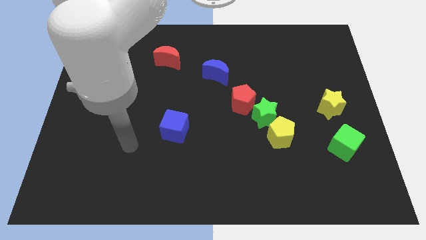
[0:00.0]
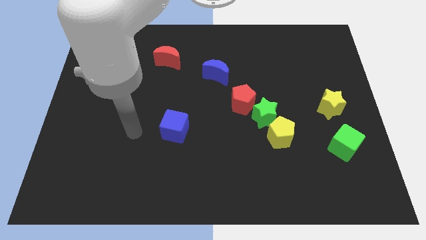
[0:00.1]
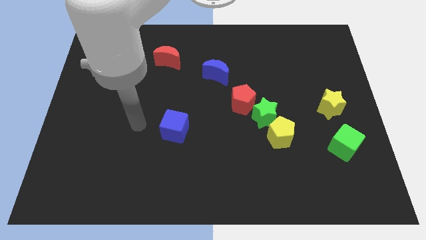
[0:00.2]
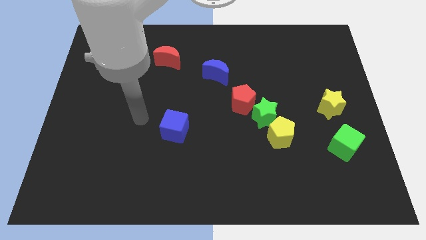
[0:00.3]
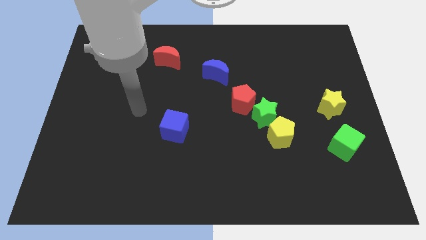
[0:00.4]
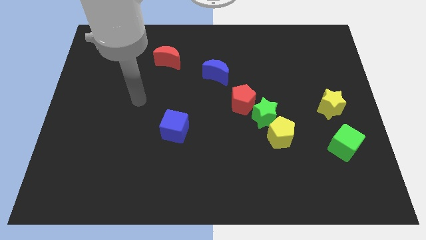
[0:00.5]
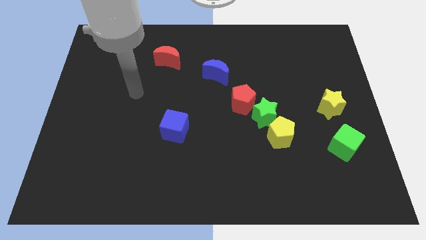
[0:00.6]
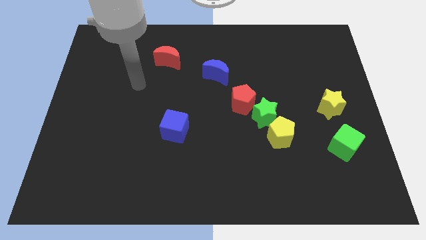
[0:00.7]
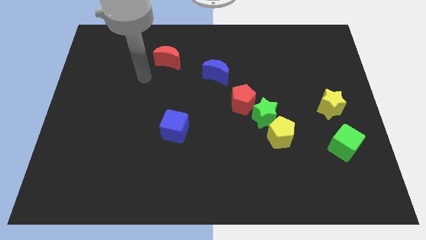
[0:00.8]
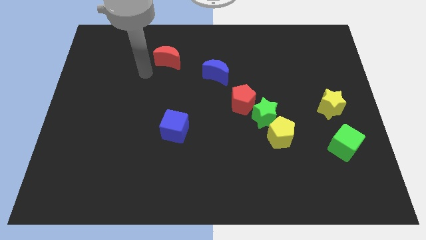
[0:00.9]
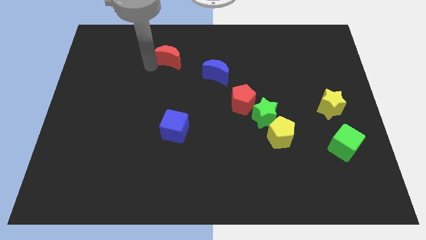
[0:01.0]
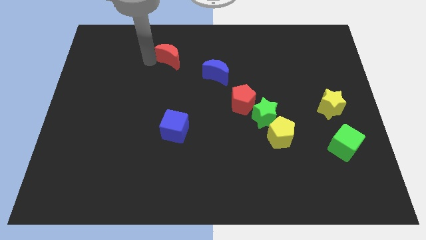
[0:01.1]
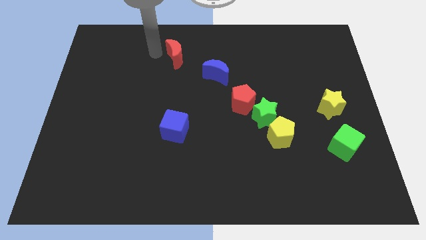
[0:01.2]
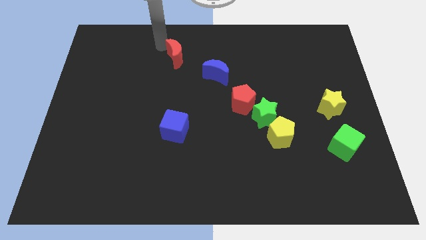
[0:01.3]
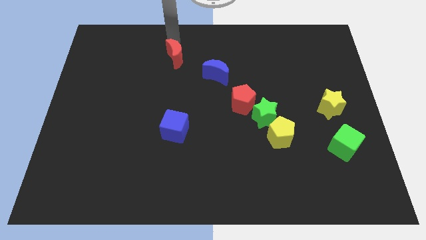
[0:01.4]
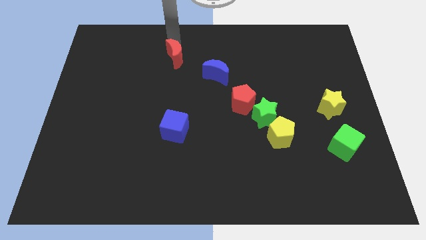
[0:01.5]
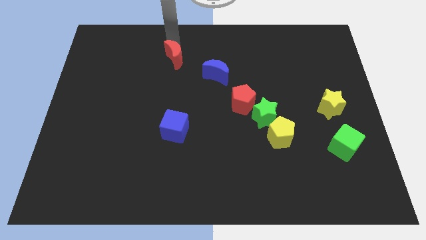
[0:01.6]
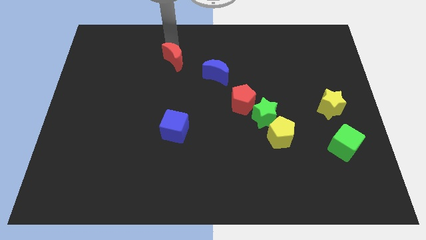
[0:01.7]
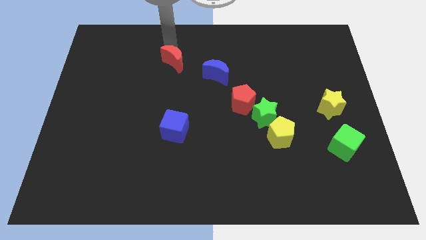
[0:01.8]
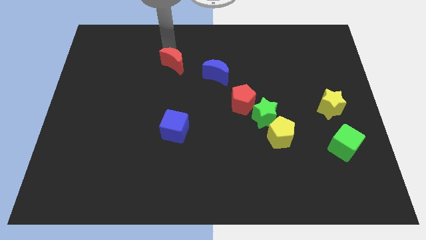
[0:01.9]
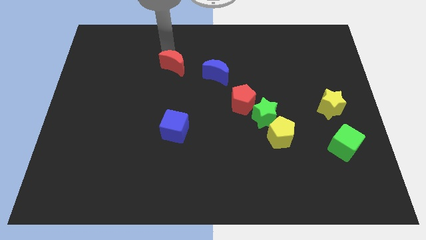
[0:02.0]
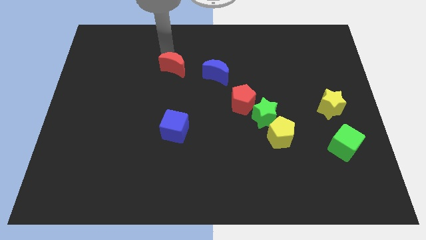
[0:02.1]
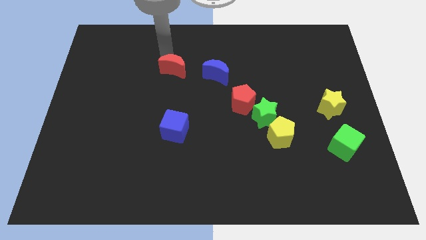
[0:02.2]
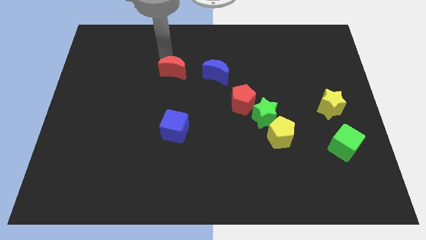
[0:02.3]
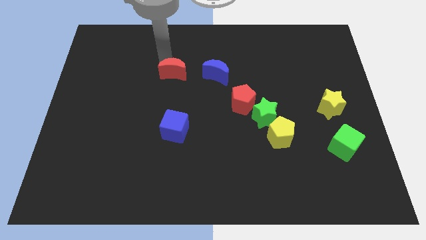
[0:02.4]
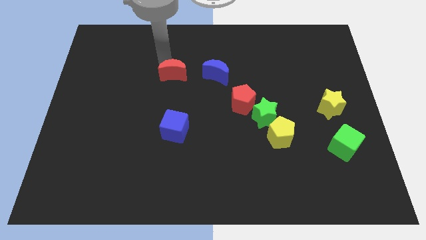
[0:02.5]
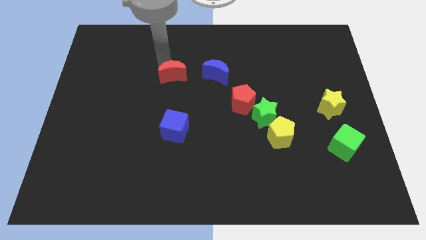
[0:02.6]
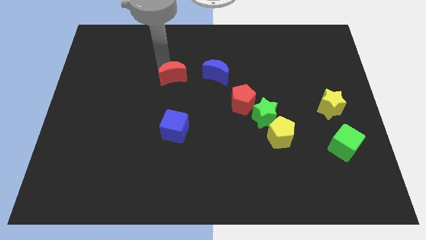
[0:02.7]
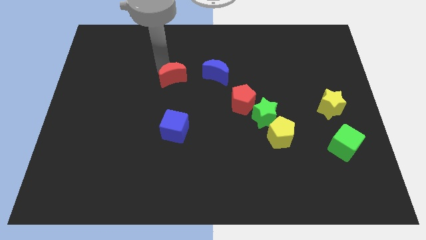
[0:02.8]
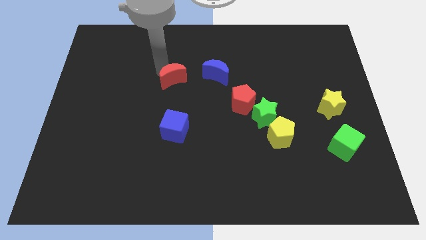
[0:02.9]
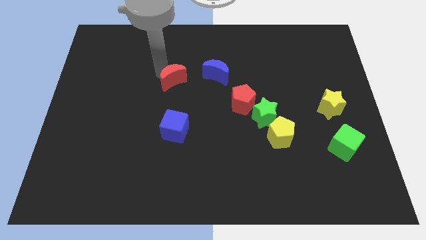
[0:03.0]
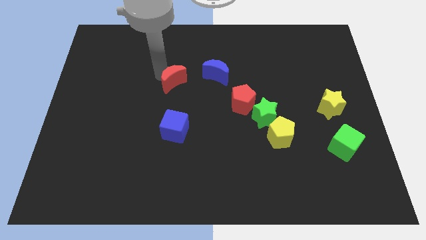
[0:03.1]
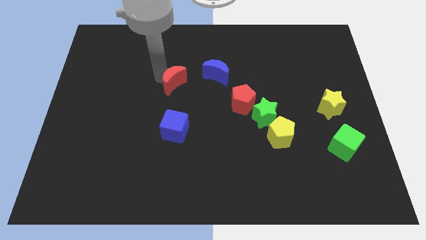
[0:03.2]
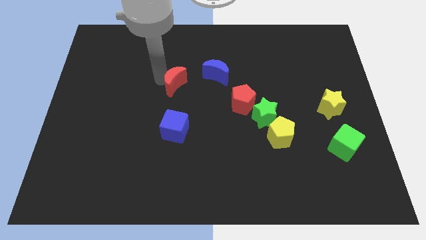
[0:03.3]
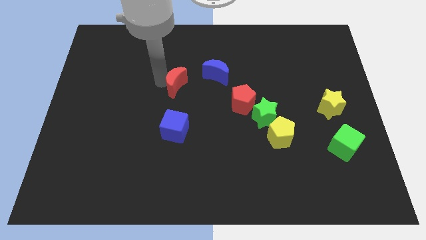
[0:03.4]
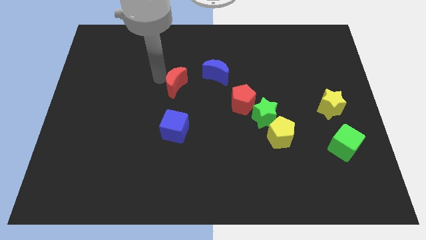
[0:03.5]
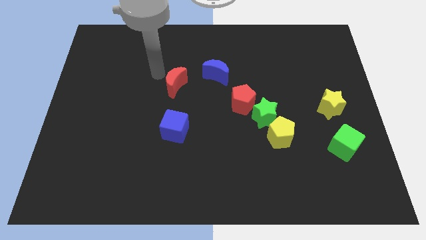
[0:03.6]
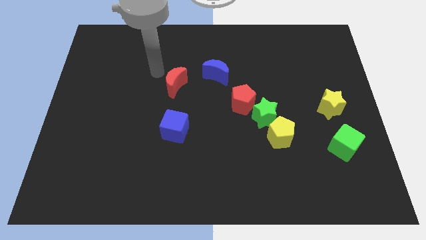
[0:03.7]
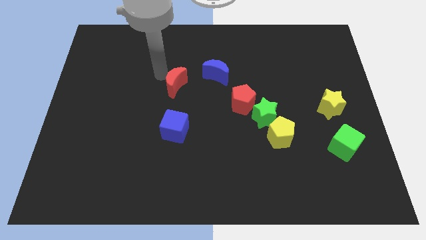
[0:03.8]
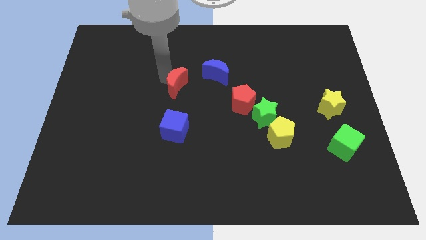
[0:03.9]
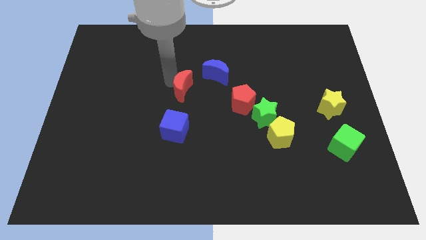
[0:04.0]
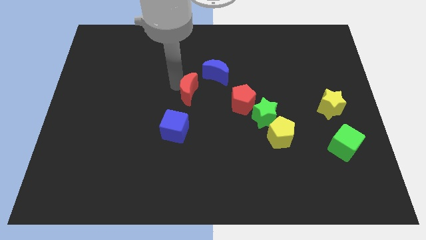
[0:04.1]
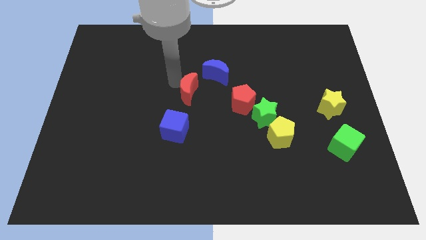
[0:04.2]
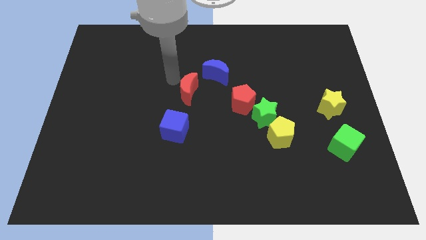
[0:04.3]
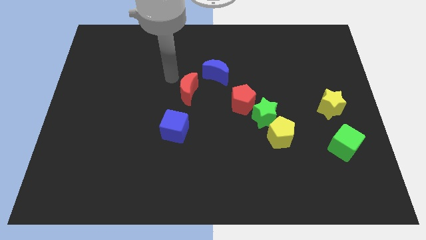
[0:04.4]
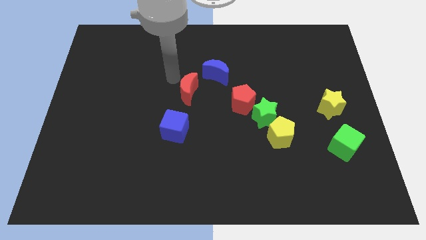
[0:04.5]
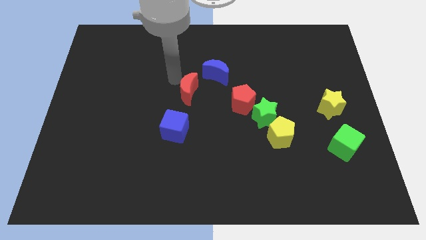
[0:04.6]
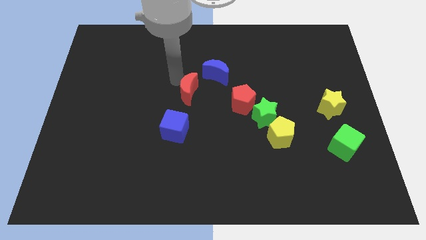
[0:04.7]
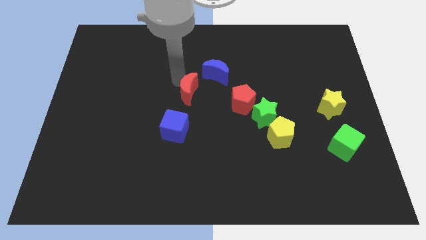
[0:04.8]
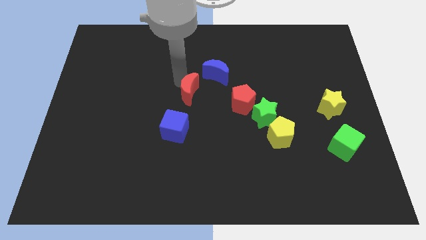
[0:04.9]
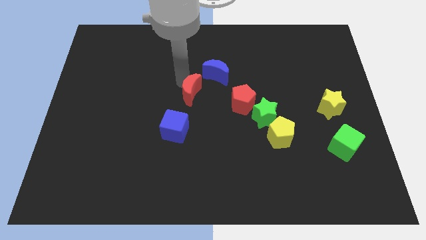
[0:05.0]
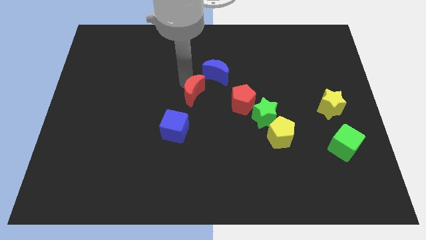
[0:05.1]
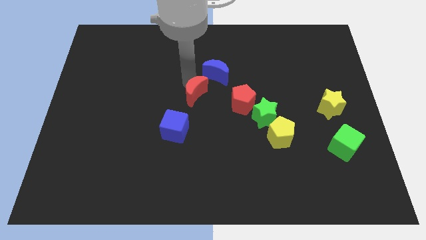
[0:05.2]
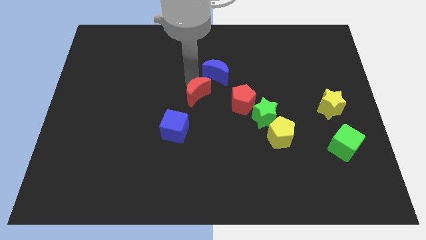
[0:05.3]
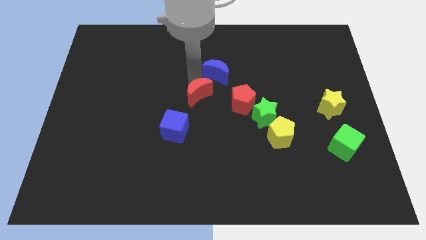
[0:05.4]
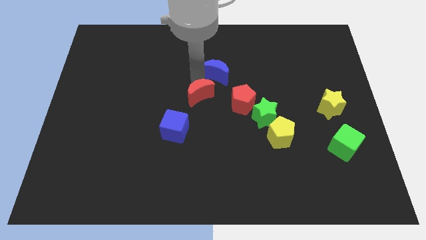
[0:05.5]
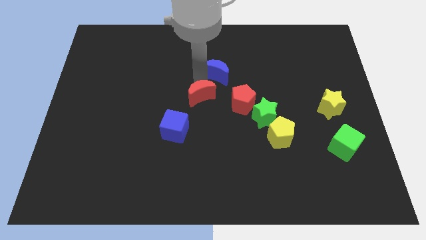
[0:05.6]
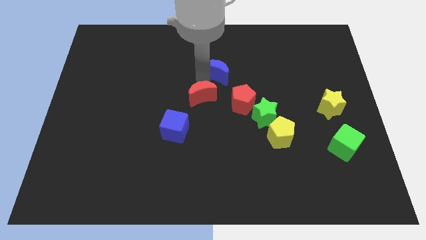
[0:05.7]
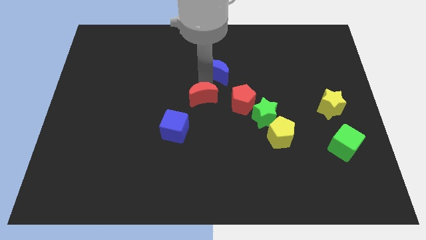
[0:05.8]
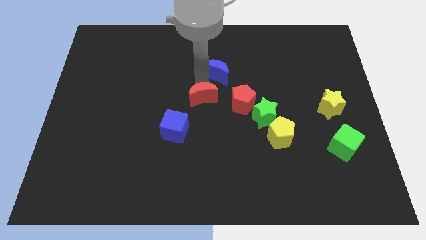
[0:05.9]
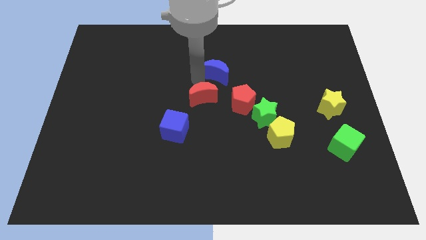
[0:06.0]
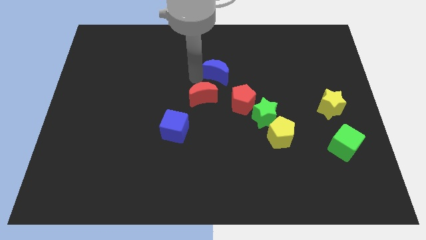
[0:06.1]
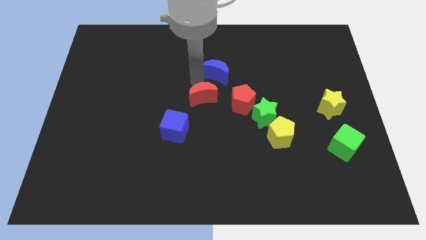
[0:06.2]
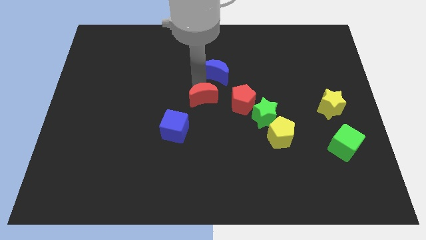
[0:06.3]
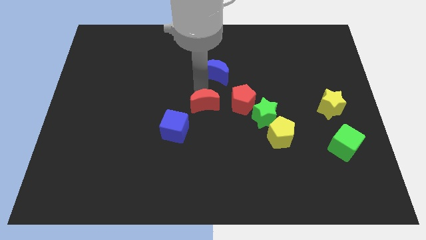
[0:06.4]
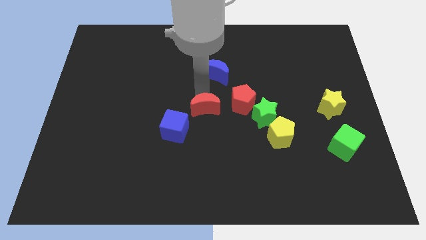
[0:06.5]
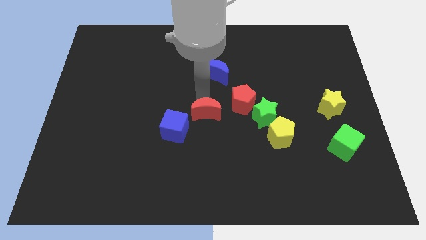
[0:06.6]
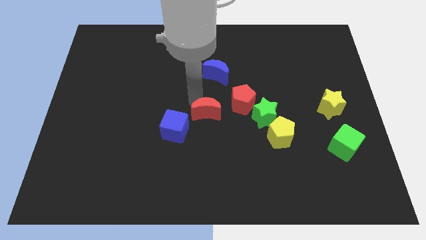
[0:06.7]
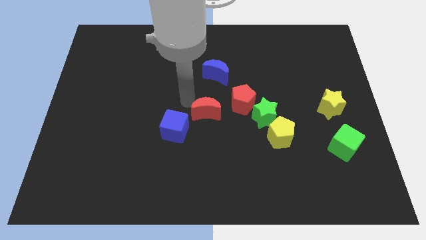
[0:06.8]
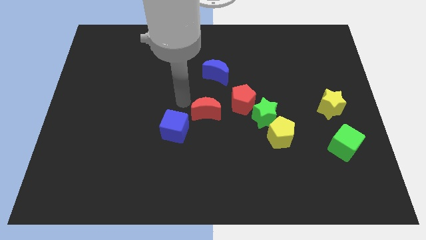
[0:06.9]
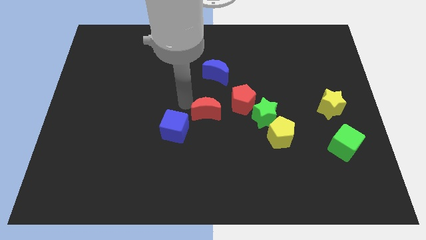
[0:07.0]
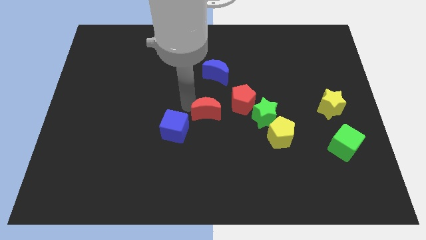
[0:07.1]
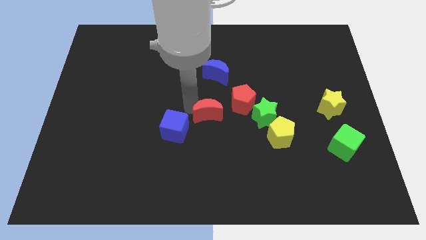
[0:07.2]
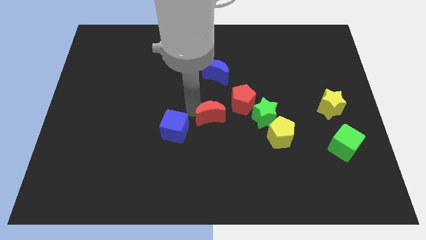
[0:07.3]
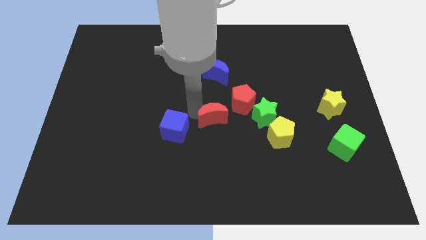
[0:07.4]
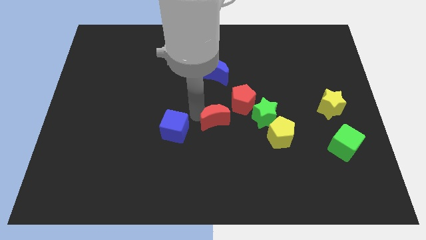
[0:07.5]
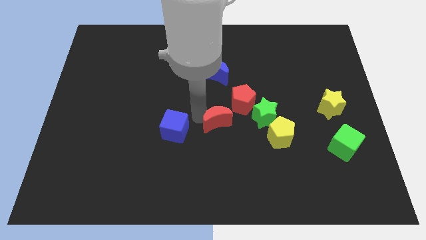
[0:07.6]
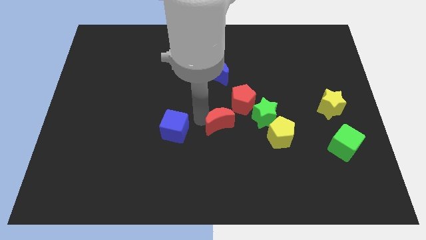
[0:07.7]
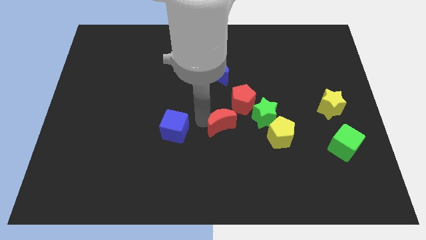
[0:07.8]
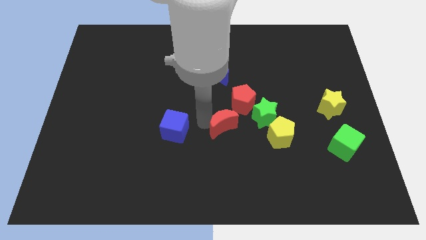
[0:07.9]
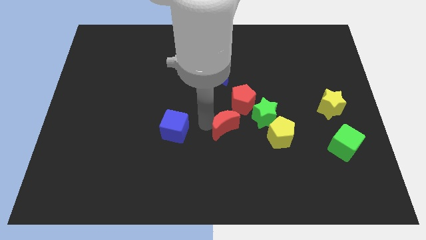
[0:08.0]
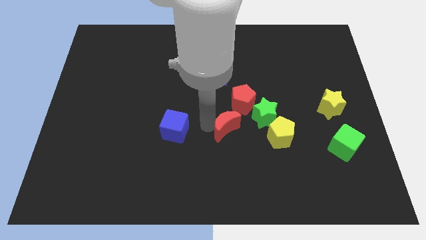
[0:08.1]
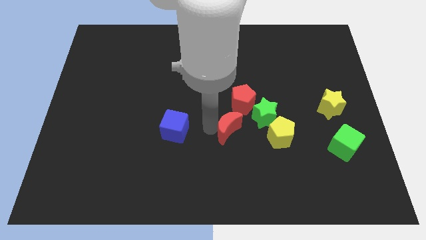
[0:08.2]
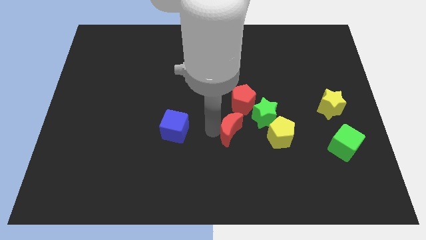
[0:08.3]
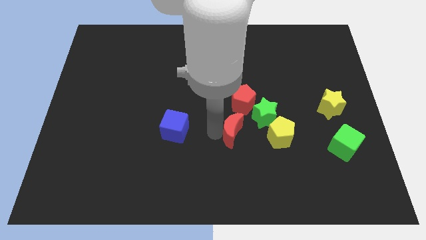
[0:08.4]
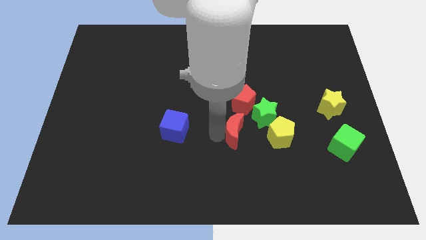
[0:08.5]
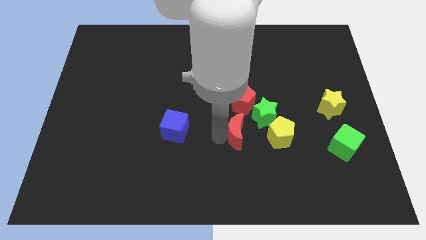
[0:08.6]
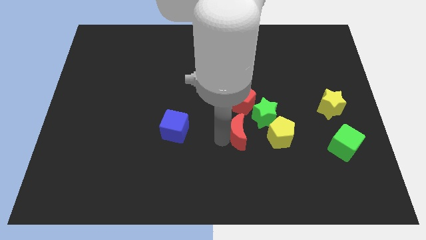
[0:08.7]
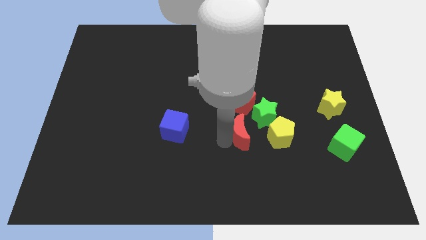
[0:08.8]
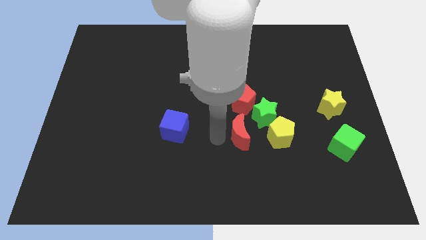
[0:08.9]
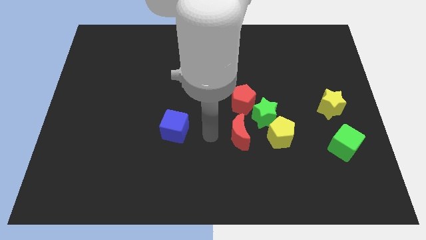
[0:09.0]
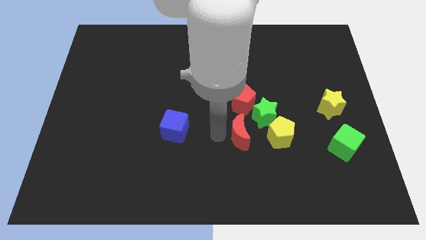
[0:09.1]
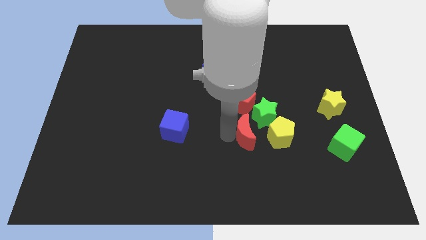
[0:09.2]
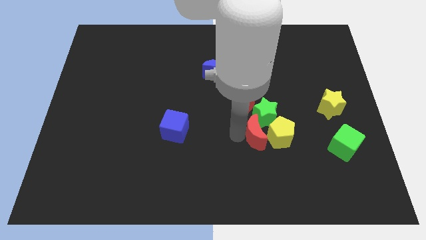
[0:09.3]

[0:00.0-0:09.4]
push the red moon next to the yellow pentagon
